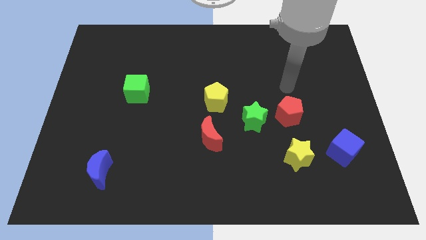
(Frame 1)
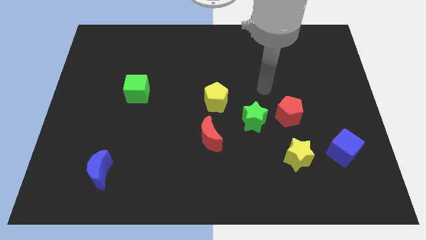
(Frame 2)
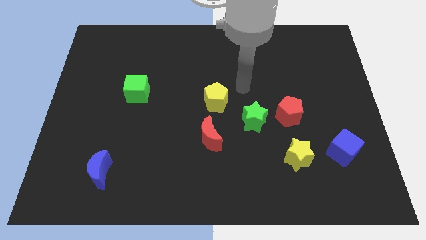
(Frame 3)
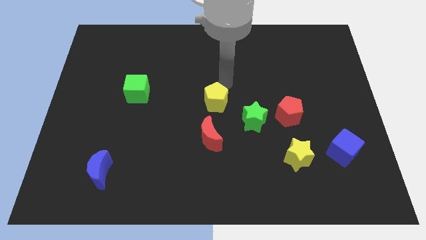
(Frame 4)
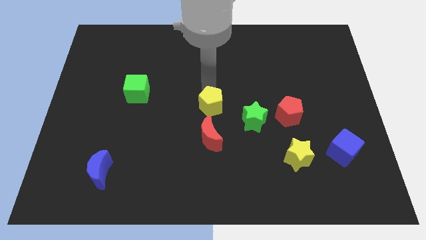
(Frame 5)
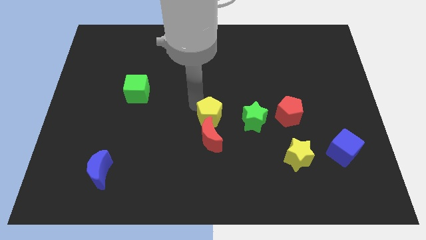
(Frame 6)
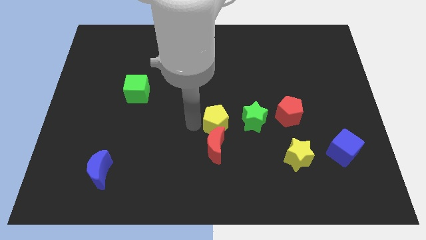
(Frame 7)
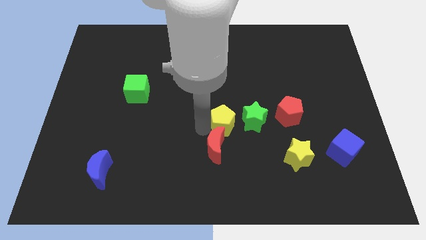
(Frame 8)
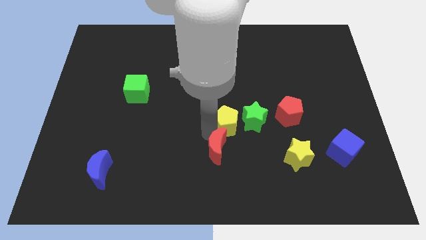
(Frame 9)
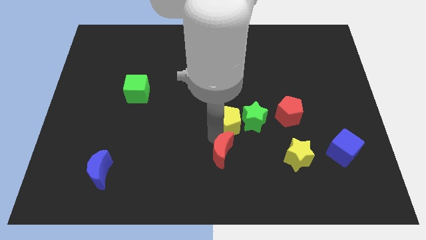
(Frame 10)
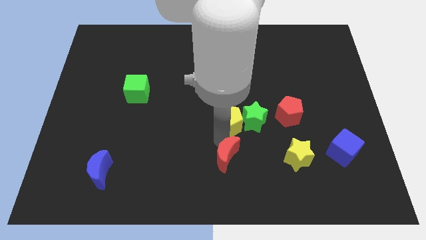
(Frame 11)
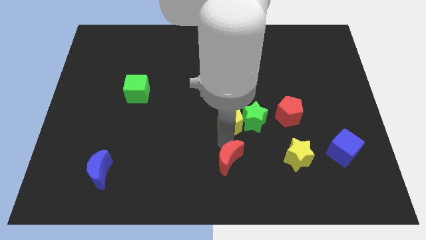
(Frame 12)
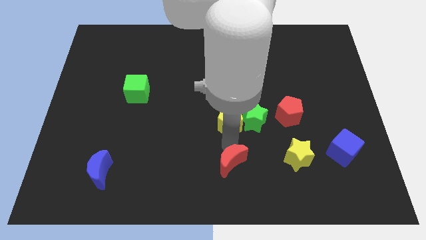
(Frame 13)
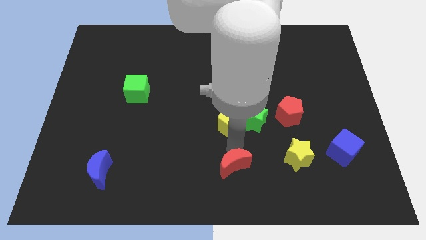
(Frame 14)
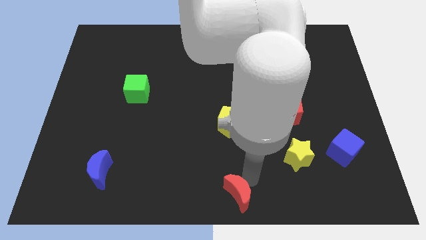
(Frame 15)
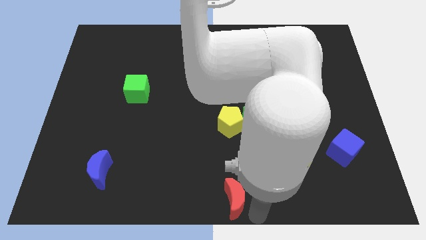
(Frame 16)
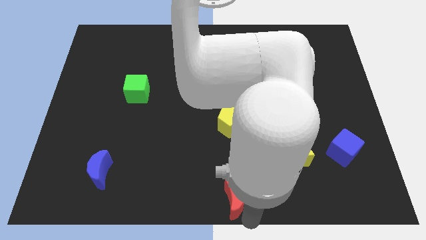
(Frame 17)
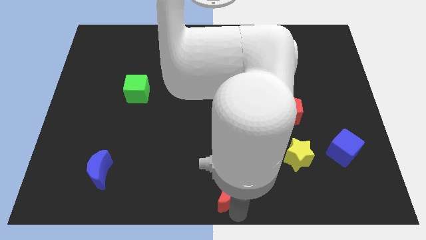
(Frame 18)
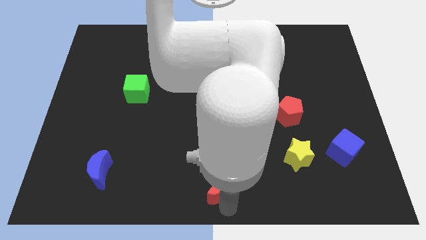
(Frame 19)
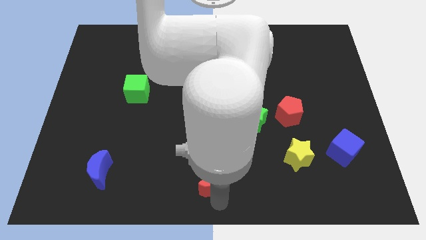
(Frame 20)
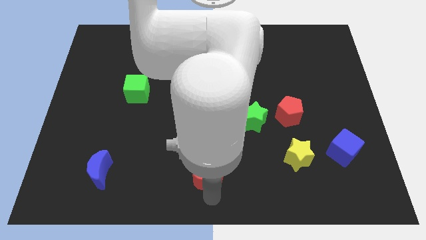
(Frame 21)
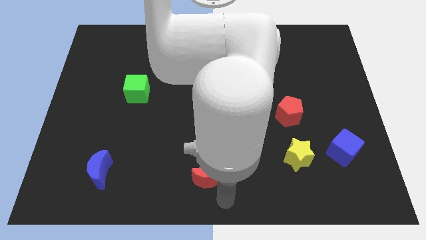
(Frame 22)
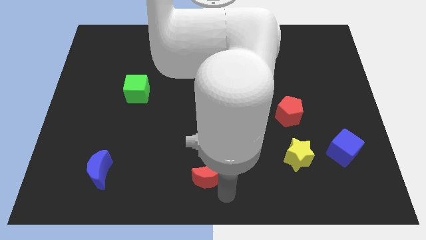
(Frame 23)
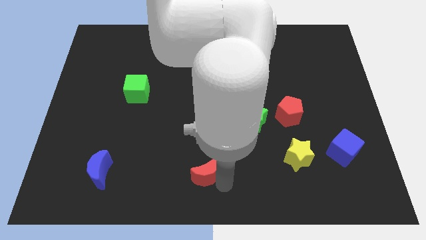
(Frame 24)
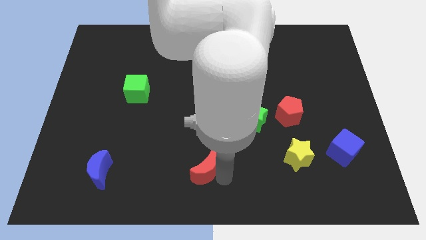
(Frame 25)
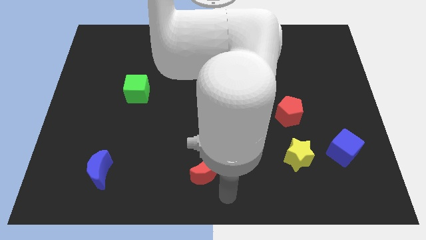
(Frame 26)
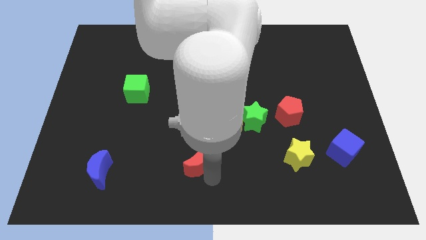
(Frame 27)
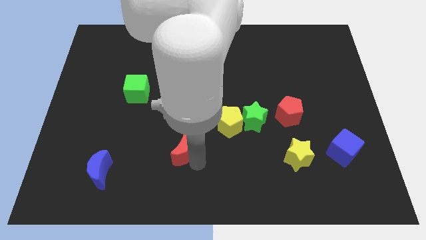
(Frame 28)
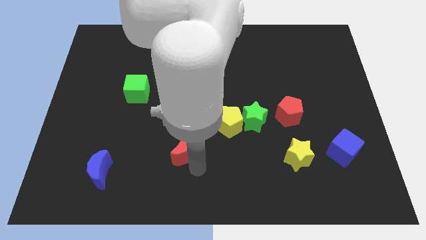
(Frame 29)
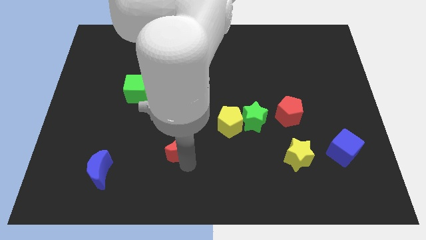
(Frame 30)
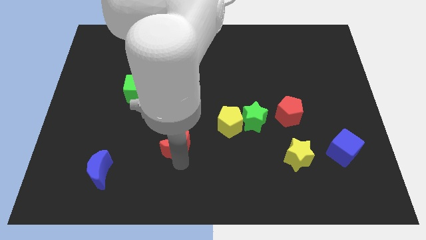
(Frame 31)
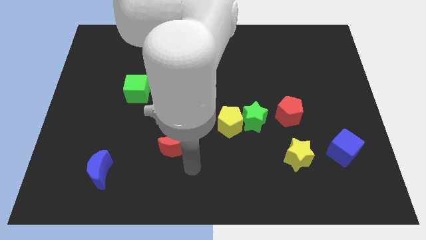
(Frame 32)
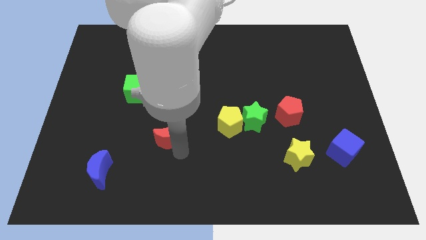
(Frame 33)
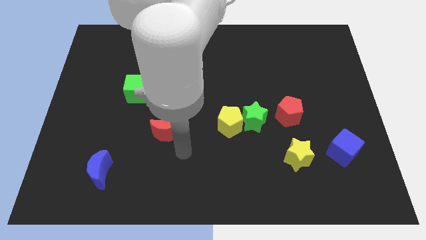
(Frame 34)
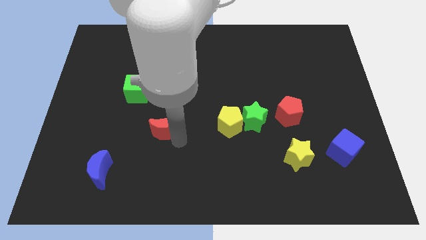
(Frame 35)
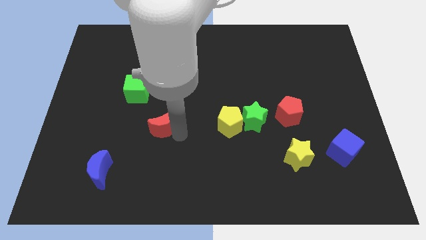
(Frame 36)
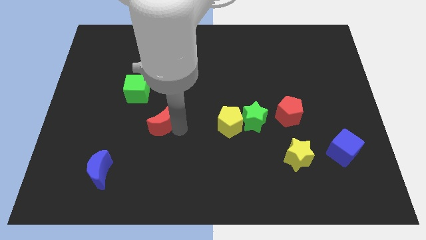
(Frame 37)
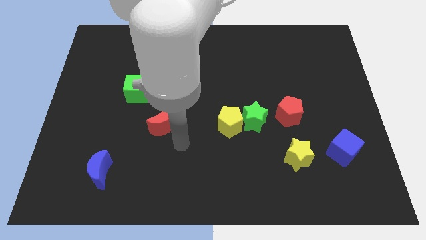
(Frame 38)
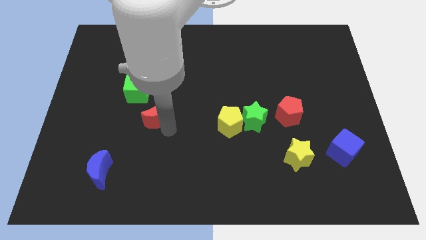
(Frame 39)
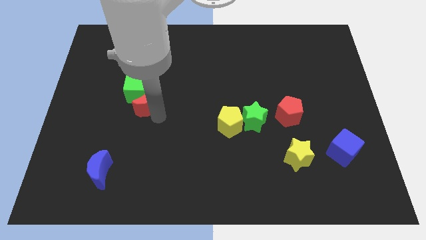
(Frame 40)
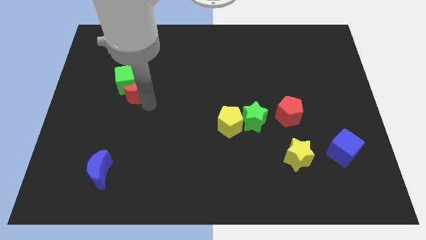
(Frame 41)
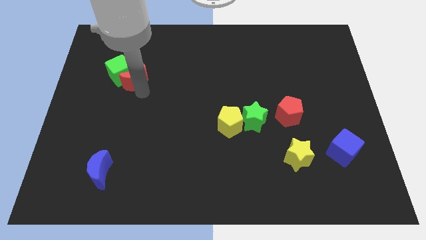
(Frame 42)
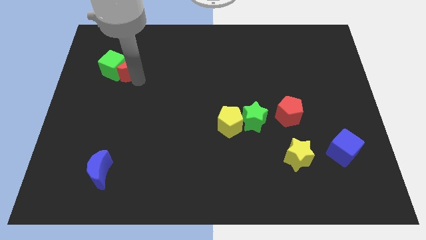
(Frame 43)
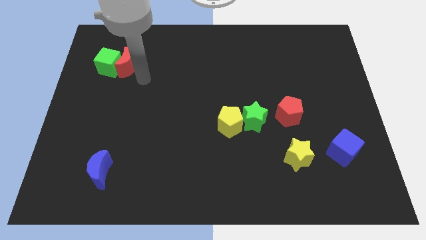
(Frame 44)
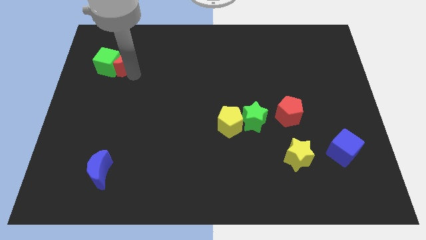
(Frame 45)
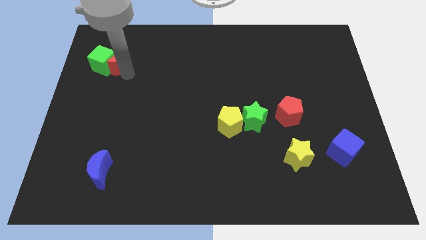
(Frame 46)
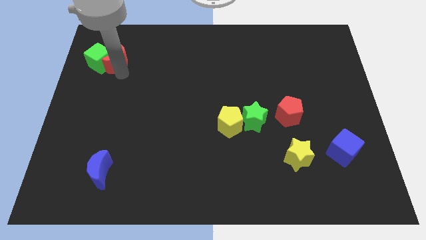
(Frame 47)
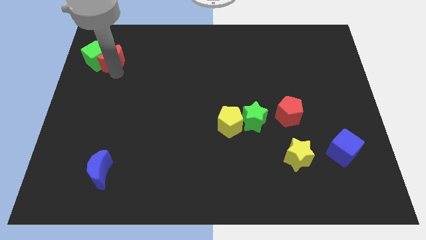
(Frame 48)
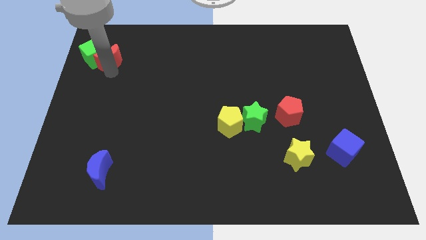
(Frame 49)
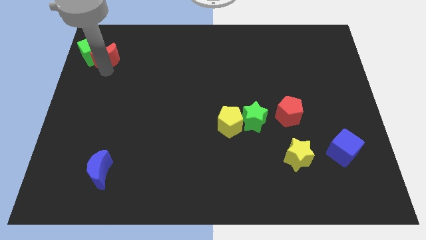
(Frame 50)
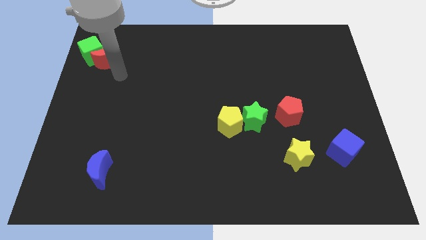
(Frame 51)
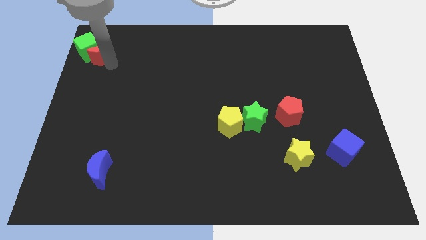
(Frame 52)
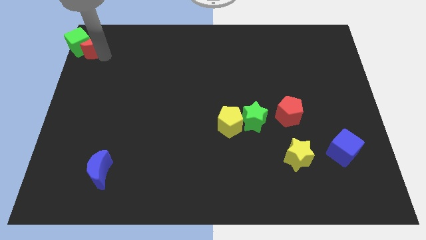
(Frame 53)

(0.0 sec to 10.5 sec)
move the red moon to the upper left corner

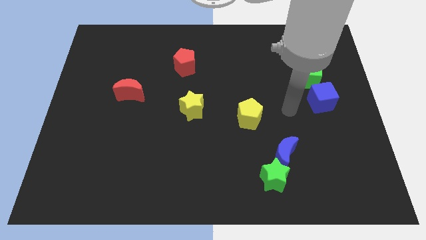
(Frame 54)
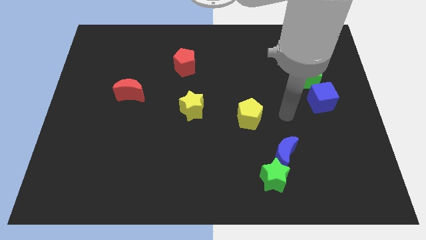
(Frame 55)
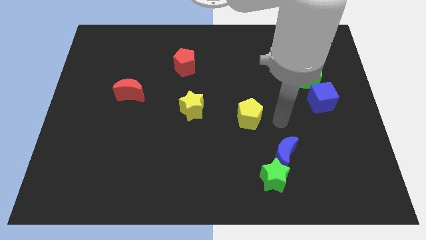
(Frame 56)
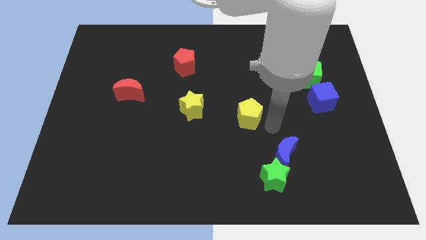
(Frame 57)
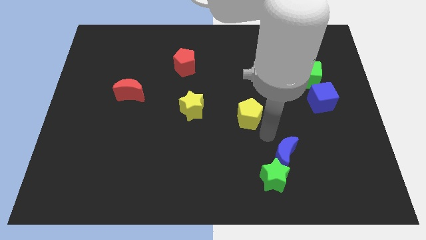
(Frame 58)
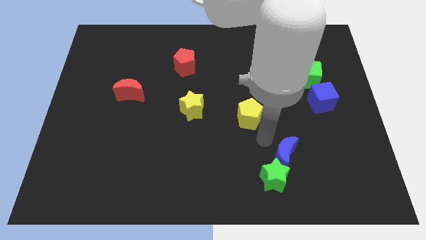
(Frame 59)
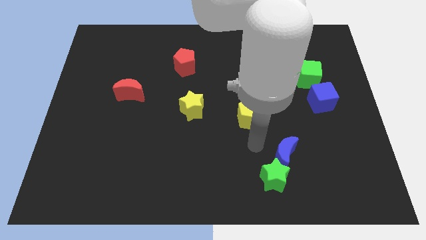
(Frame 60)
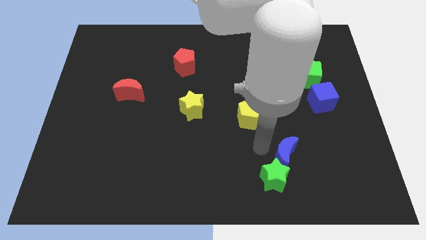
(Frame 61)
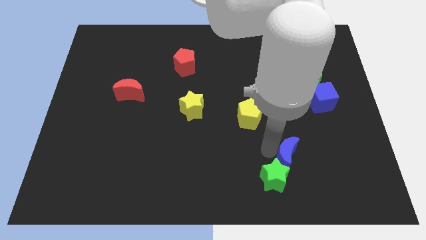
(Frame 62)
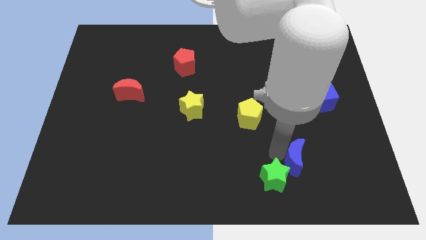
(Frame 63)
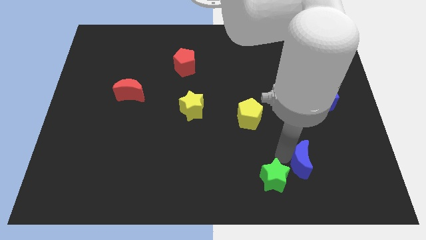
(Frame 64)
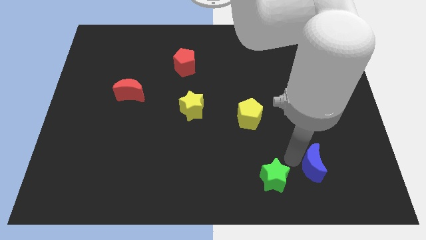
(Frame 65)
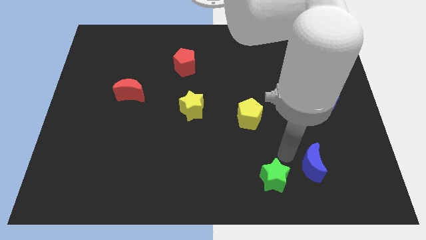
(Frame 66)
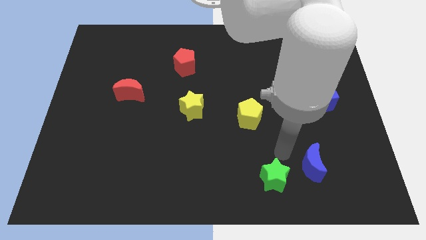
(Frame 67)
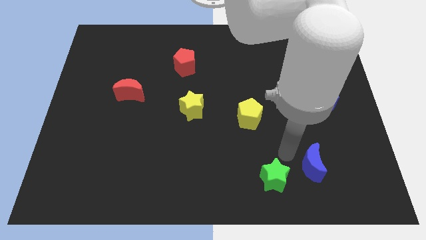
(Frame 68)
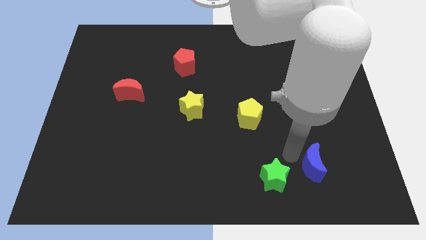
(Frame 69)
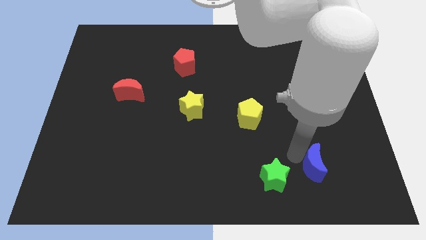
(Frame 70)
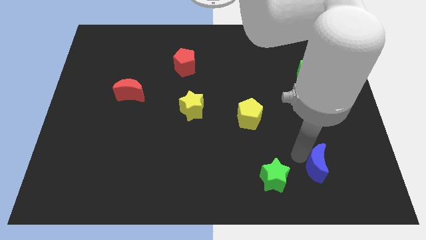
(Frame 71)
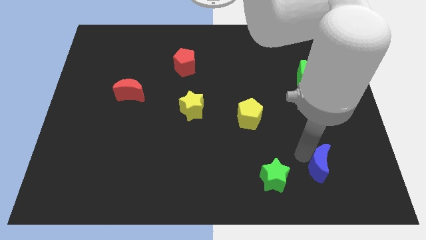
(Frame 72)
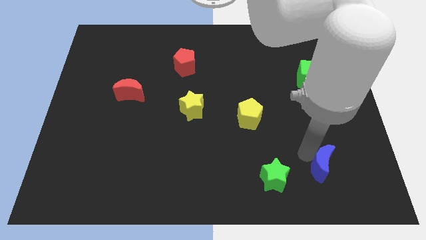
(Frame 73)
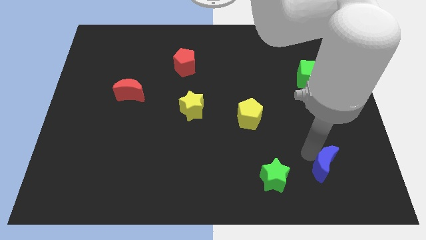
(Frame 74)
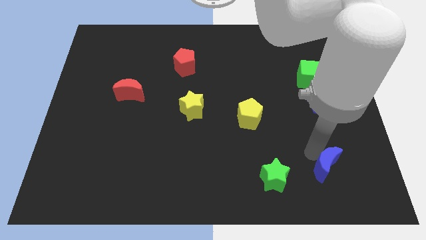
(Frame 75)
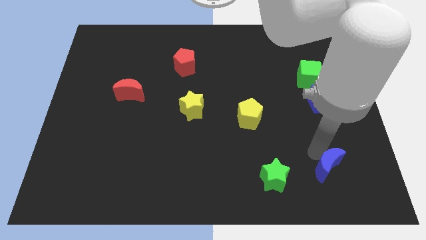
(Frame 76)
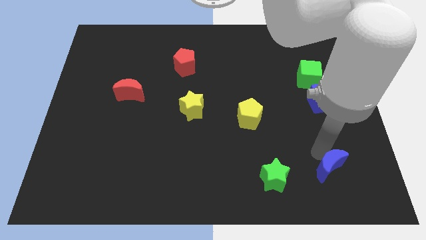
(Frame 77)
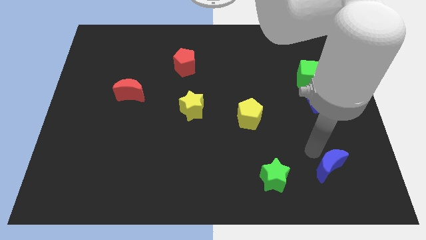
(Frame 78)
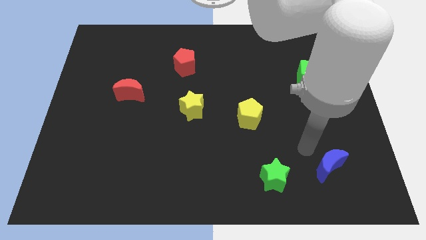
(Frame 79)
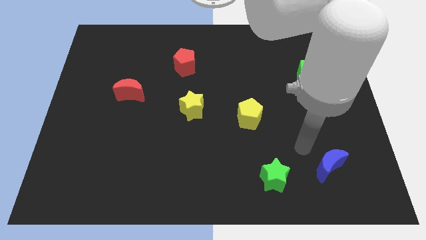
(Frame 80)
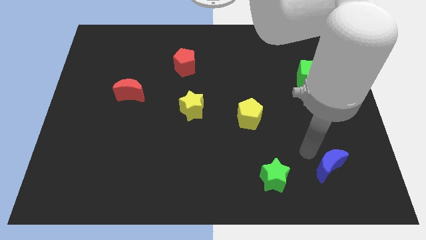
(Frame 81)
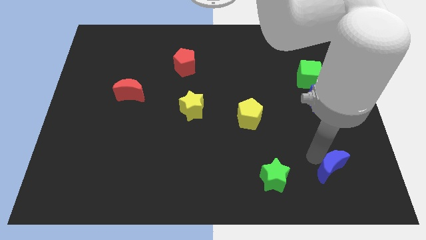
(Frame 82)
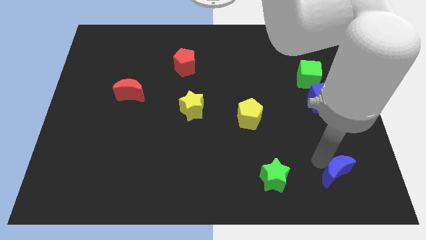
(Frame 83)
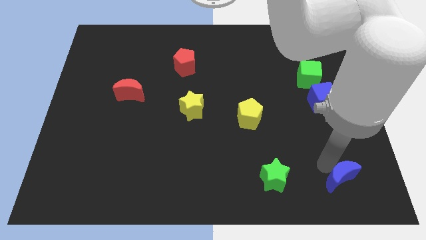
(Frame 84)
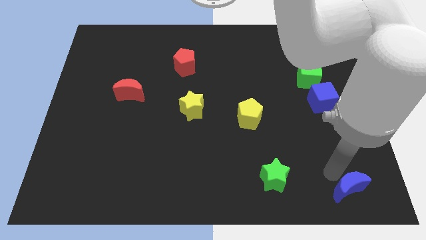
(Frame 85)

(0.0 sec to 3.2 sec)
push the blue moon to the bottom right
